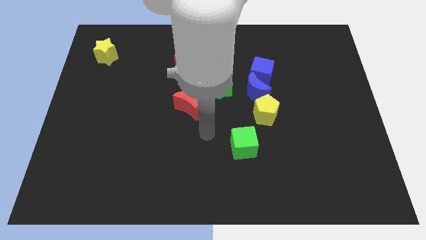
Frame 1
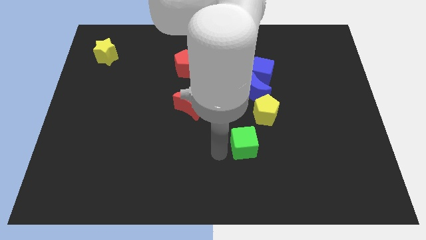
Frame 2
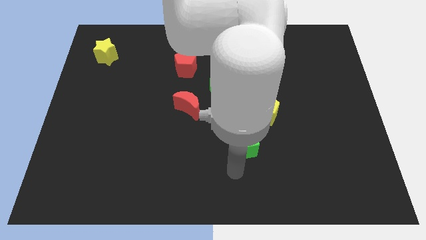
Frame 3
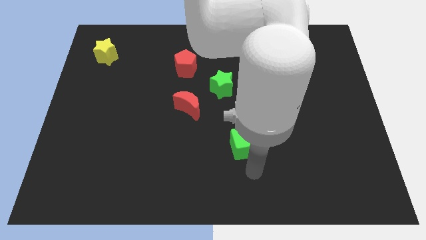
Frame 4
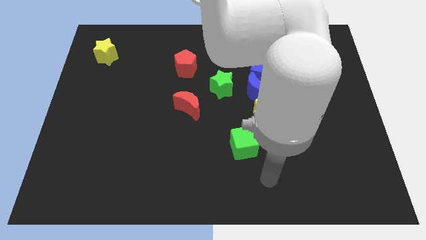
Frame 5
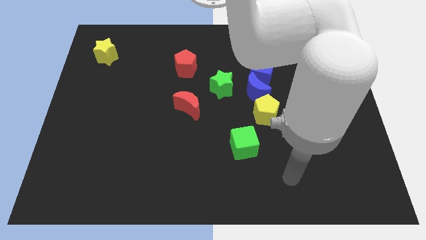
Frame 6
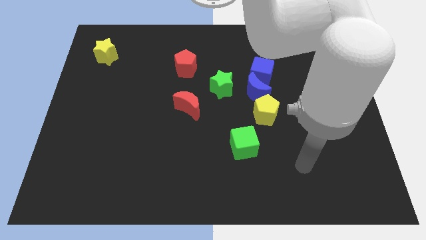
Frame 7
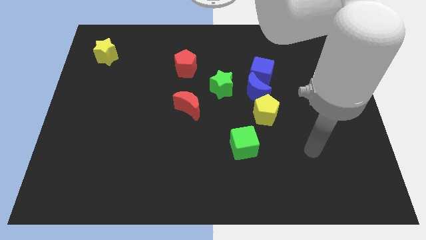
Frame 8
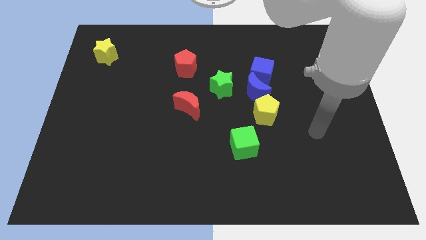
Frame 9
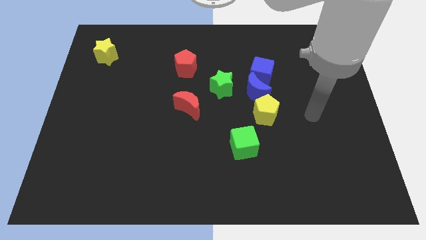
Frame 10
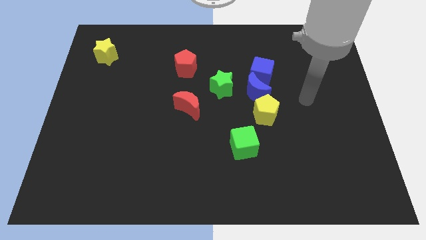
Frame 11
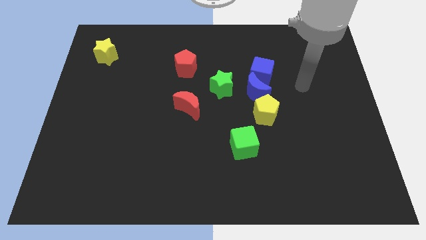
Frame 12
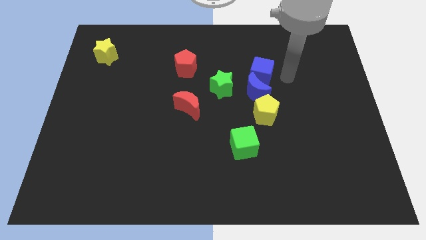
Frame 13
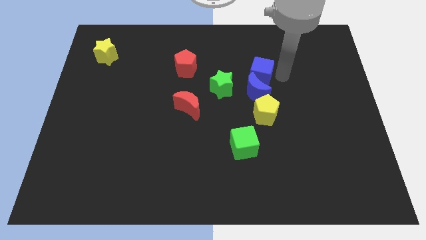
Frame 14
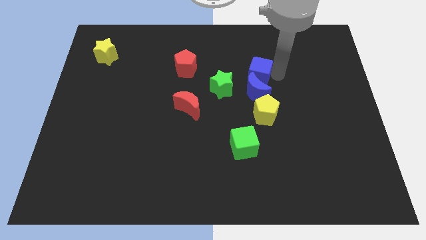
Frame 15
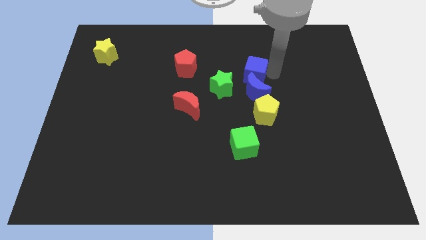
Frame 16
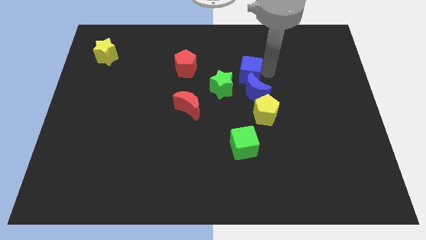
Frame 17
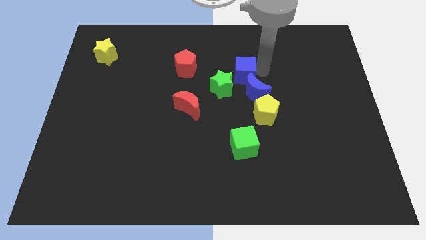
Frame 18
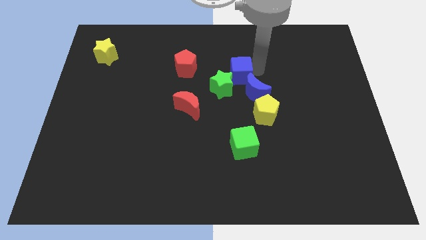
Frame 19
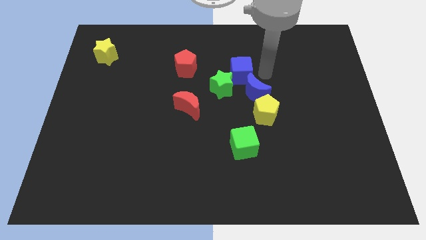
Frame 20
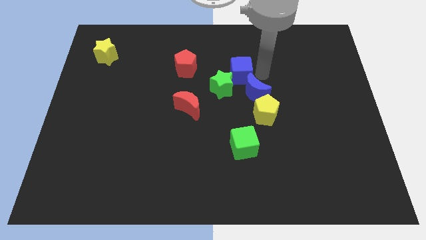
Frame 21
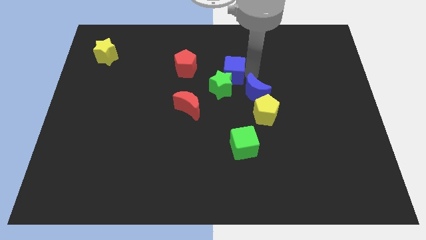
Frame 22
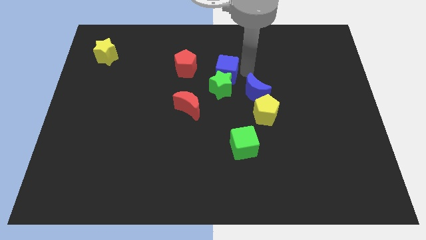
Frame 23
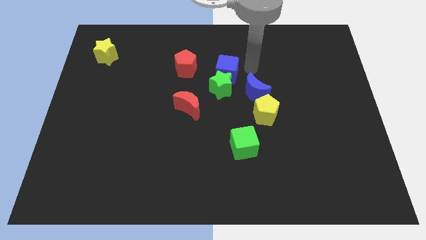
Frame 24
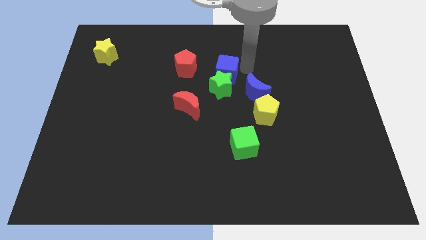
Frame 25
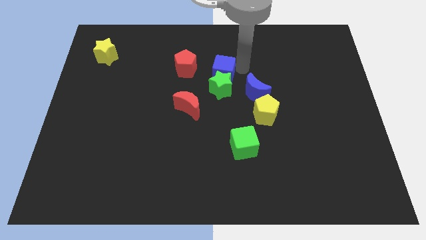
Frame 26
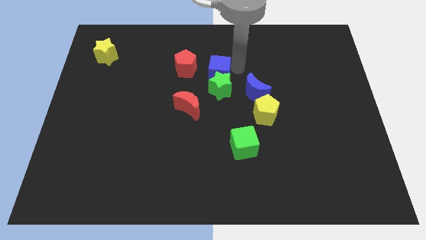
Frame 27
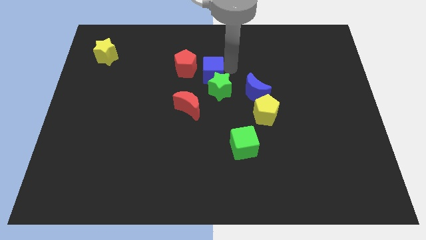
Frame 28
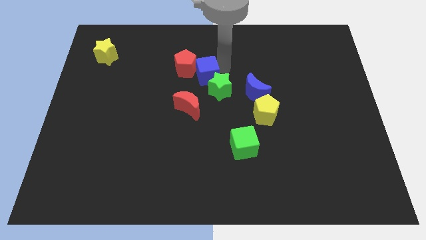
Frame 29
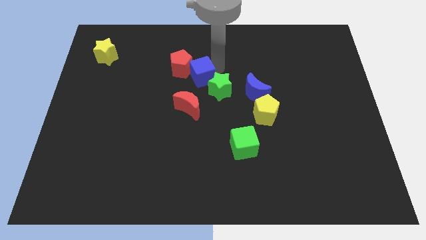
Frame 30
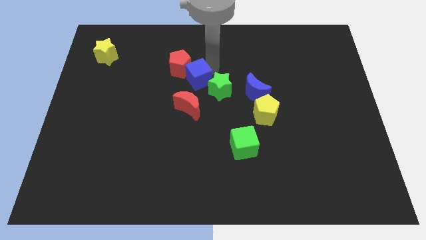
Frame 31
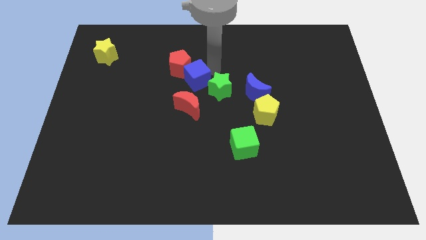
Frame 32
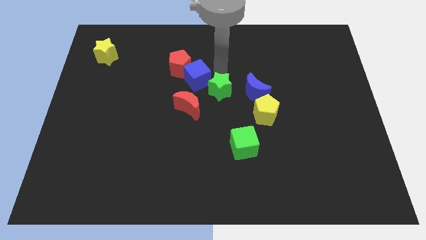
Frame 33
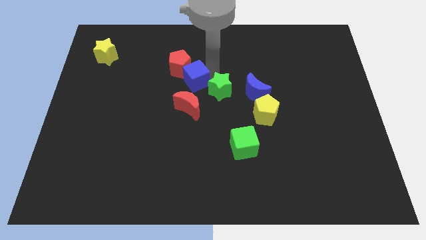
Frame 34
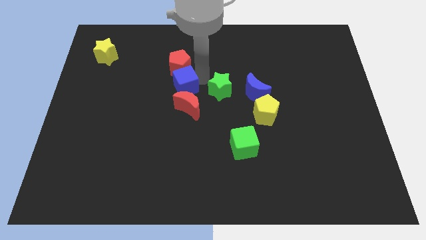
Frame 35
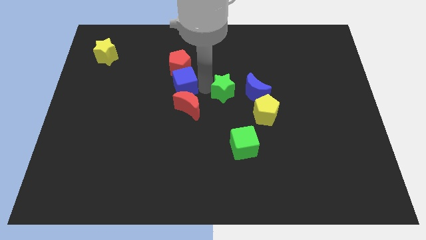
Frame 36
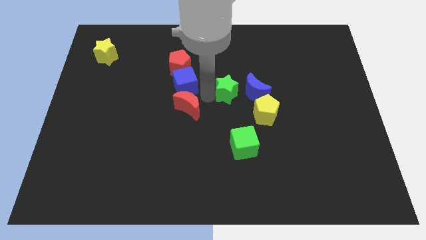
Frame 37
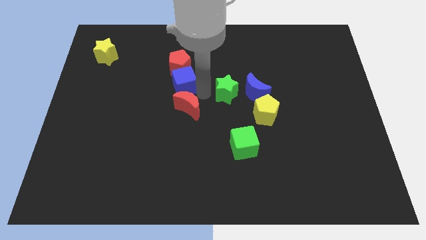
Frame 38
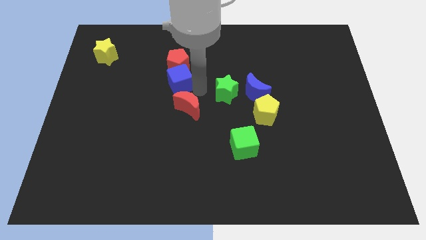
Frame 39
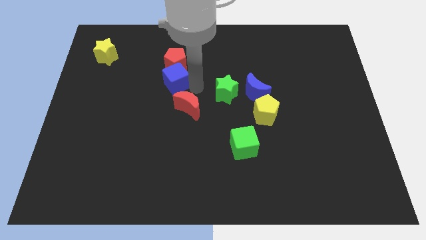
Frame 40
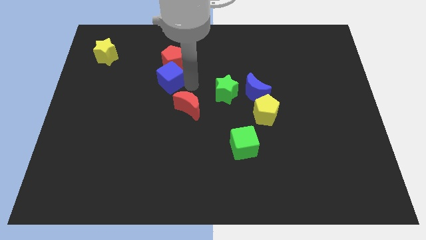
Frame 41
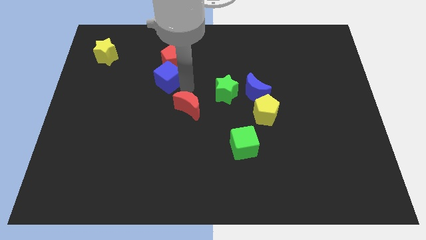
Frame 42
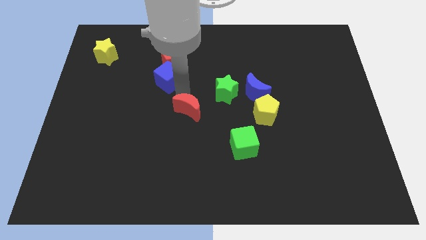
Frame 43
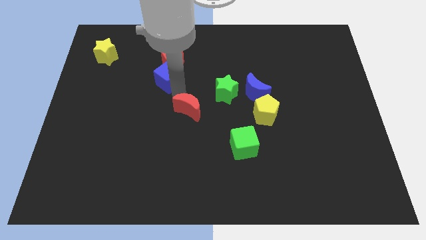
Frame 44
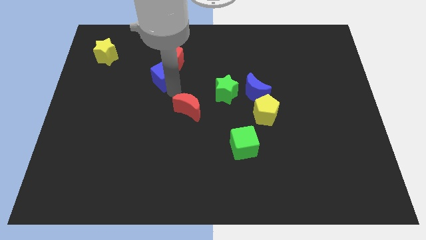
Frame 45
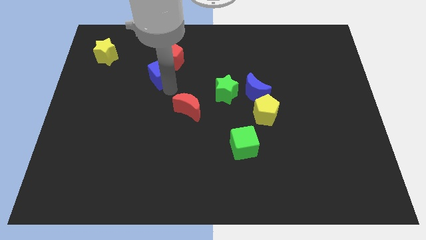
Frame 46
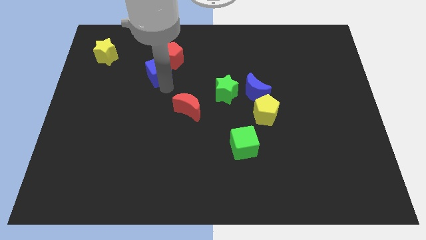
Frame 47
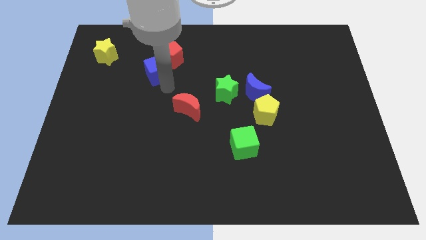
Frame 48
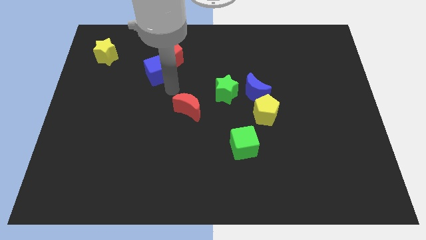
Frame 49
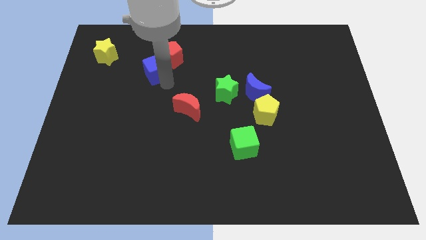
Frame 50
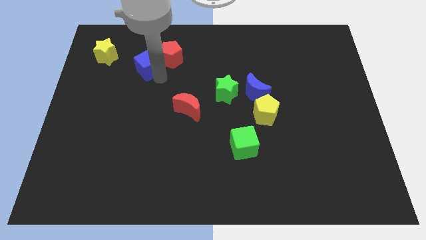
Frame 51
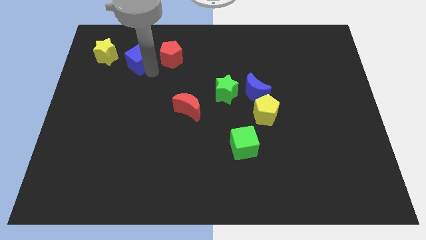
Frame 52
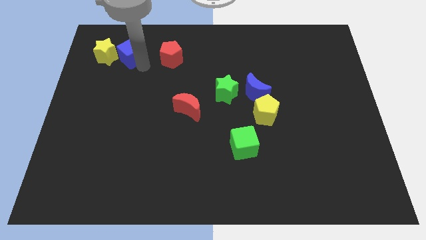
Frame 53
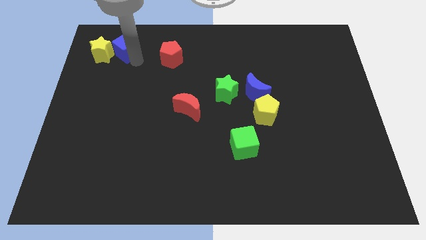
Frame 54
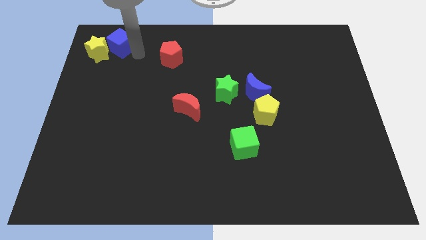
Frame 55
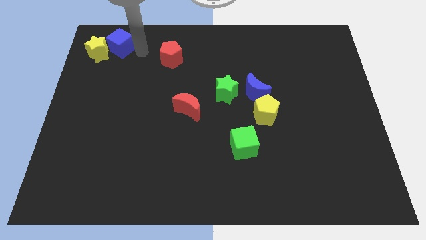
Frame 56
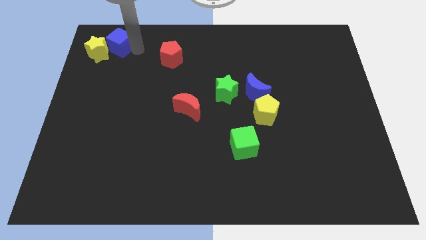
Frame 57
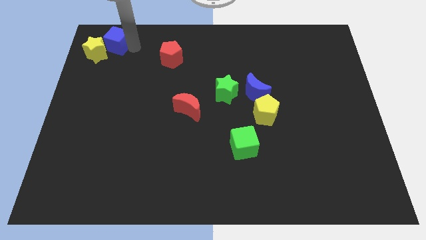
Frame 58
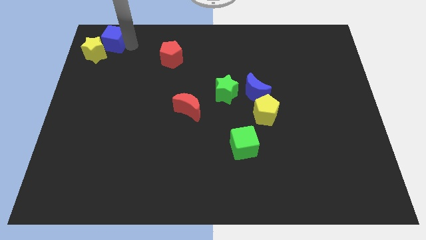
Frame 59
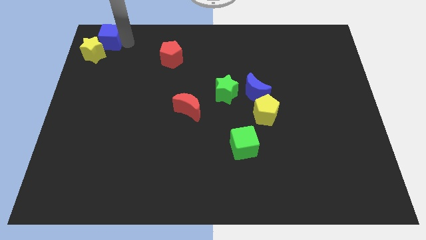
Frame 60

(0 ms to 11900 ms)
slide the blue cube to the upper left corner

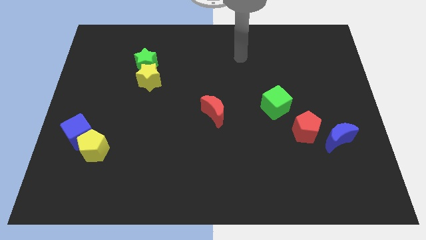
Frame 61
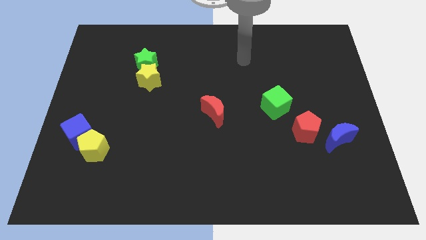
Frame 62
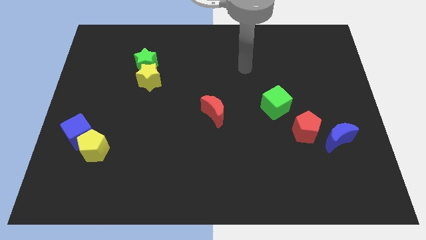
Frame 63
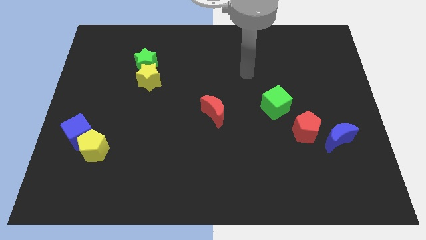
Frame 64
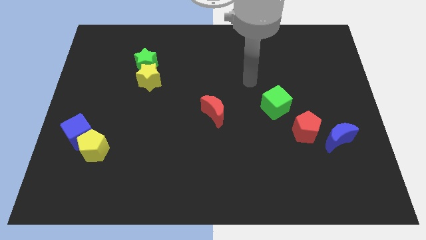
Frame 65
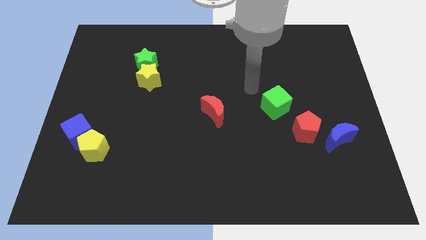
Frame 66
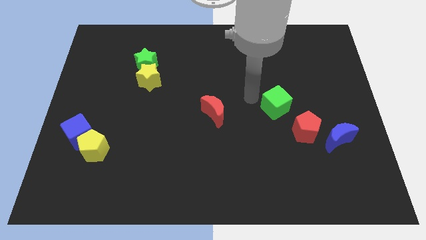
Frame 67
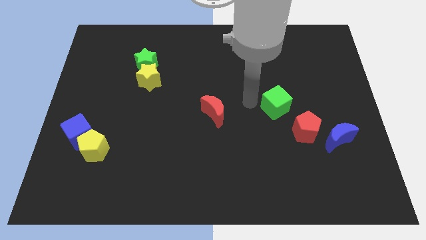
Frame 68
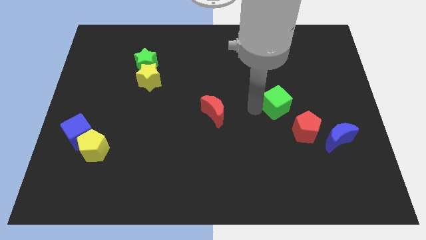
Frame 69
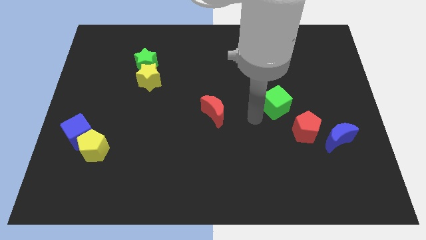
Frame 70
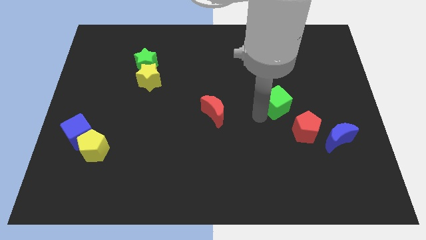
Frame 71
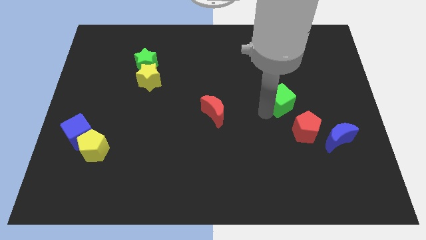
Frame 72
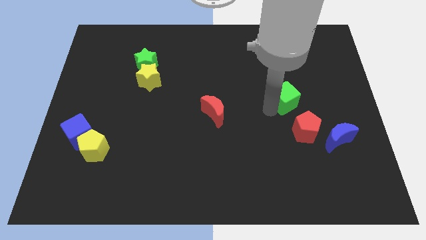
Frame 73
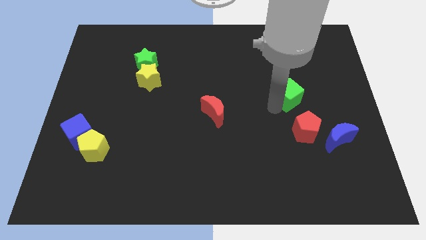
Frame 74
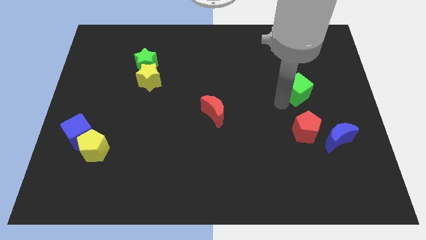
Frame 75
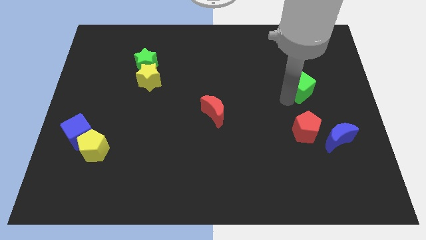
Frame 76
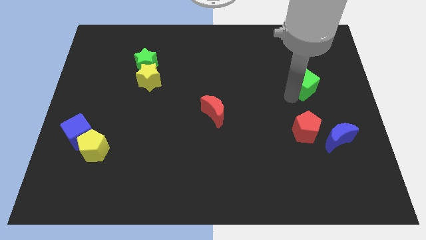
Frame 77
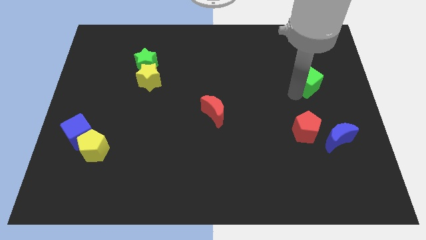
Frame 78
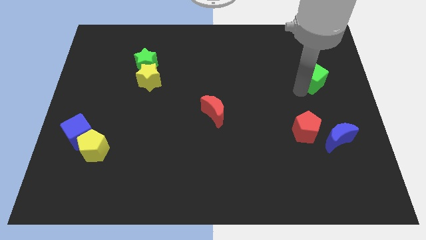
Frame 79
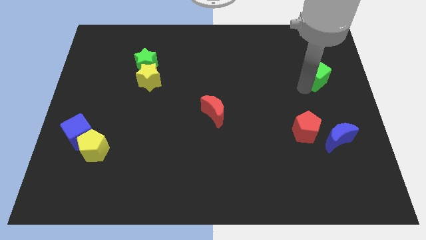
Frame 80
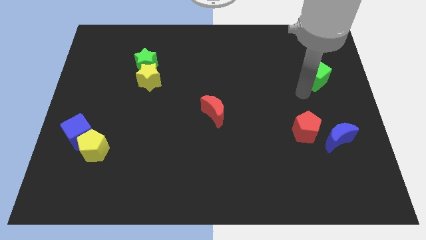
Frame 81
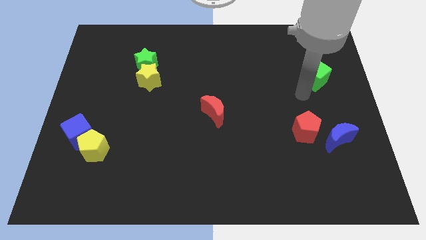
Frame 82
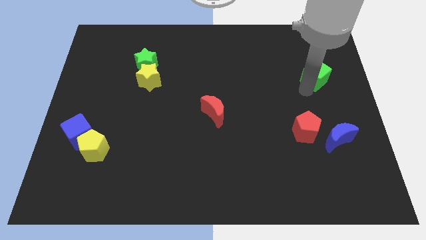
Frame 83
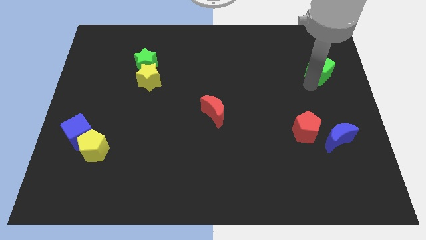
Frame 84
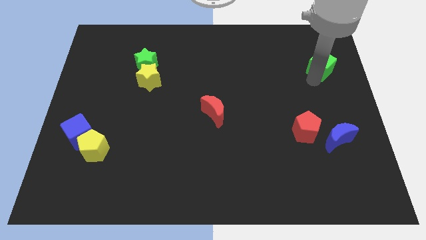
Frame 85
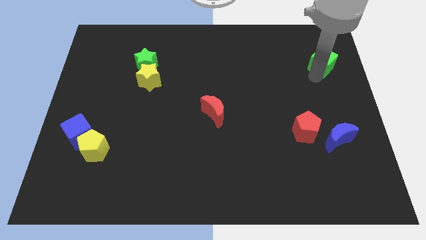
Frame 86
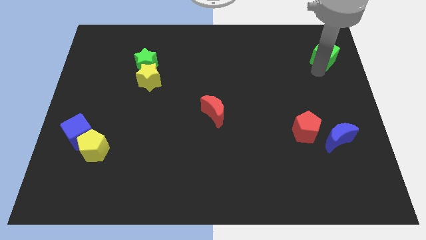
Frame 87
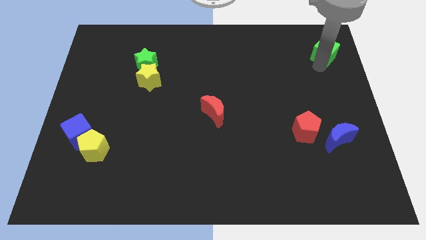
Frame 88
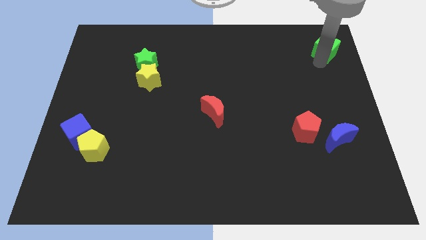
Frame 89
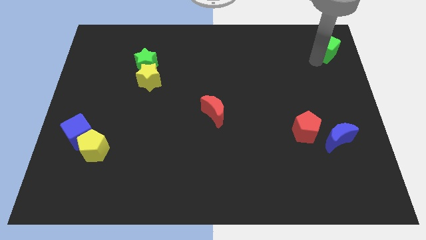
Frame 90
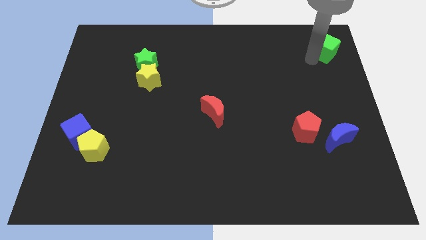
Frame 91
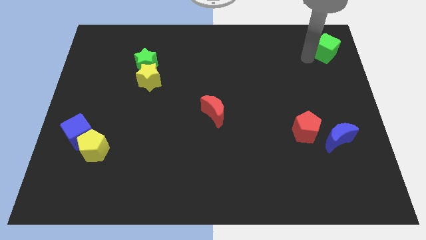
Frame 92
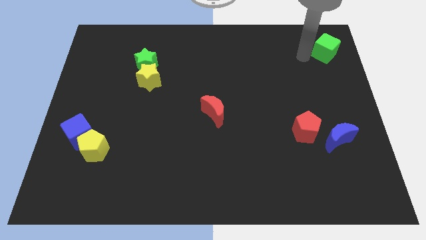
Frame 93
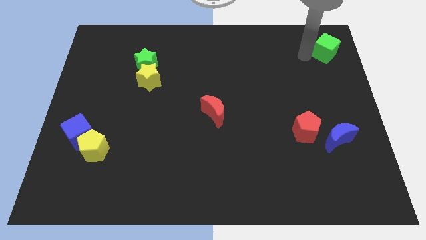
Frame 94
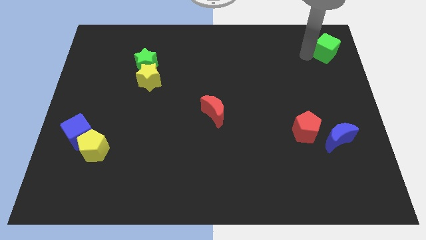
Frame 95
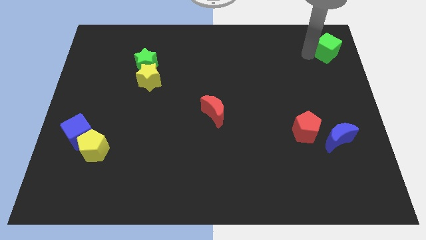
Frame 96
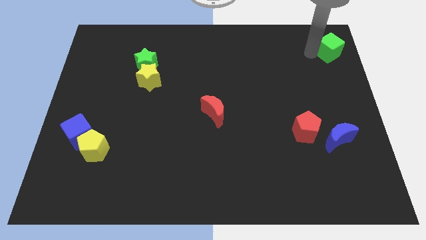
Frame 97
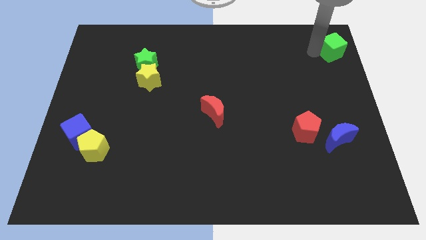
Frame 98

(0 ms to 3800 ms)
put the green cube to the top right corner
